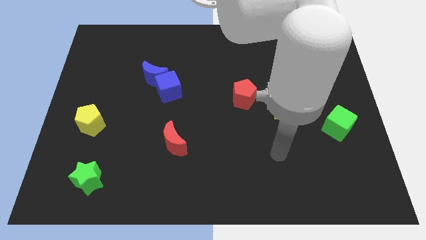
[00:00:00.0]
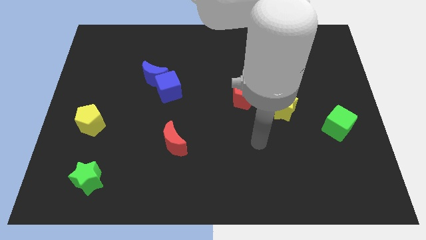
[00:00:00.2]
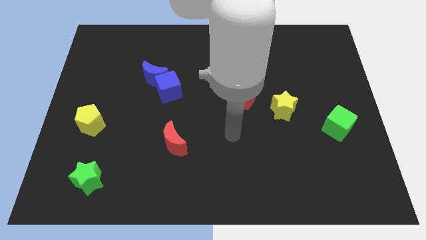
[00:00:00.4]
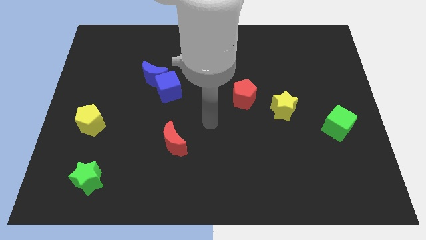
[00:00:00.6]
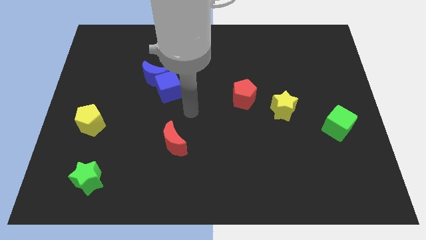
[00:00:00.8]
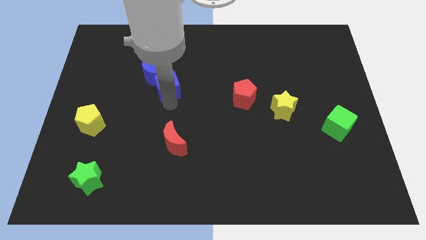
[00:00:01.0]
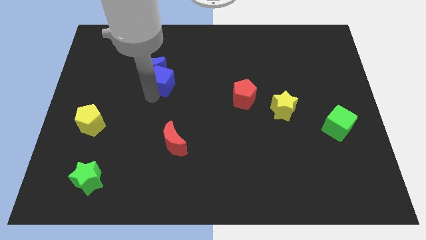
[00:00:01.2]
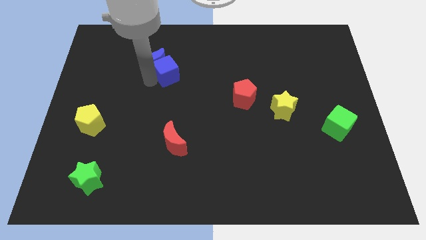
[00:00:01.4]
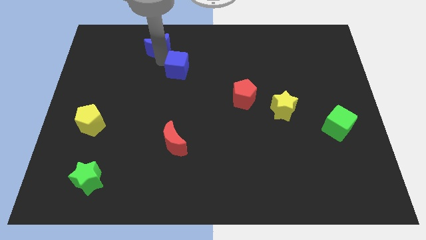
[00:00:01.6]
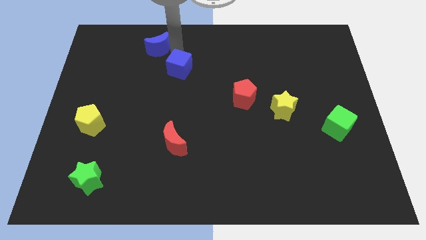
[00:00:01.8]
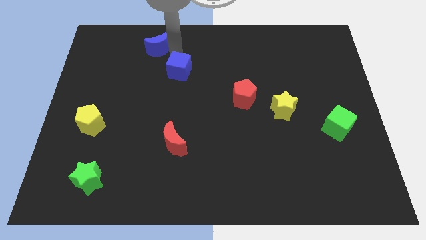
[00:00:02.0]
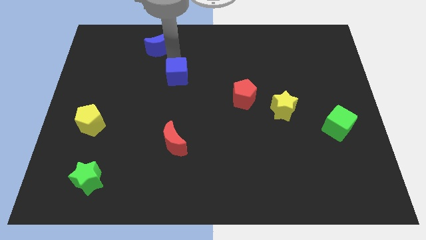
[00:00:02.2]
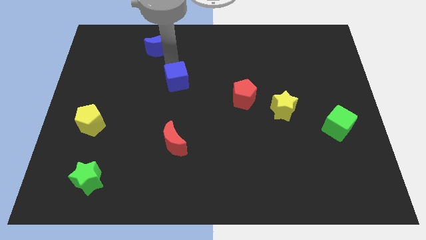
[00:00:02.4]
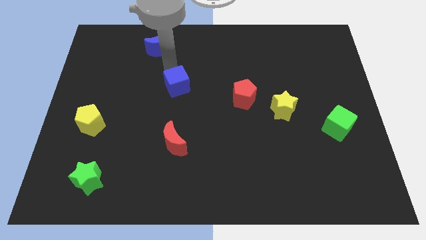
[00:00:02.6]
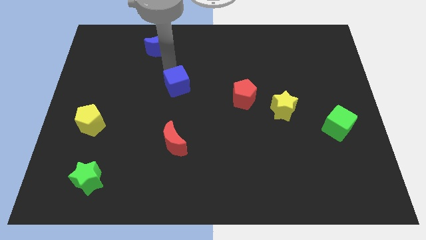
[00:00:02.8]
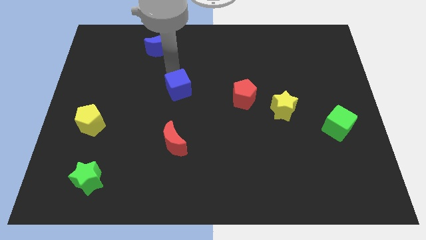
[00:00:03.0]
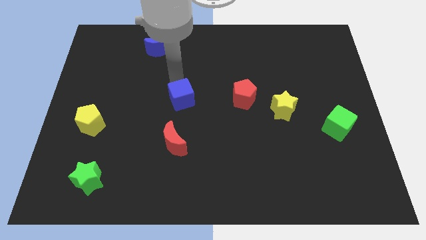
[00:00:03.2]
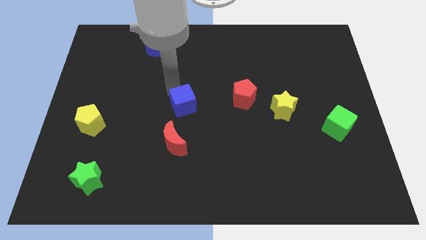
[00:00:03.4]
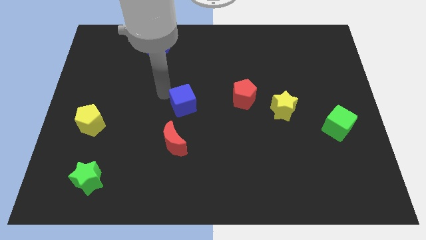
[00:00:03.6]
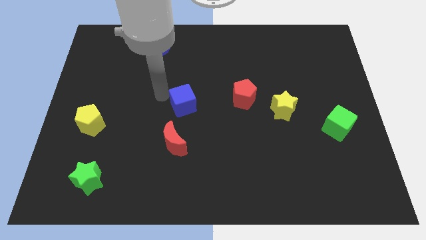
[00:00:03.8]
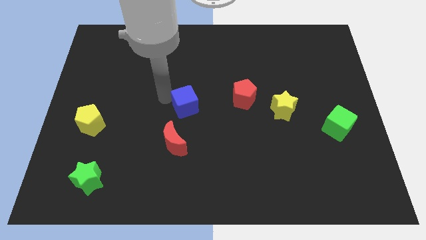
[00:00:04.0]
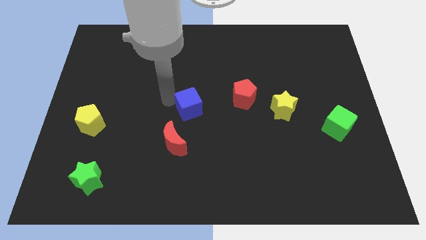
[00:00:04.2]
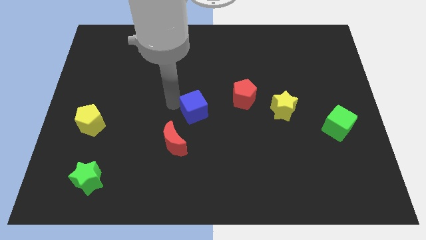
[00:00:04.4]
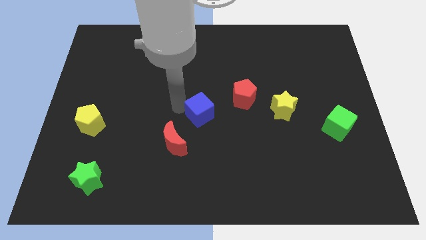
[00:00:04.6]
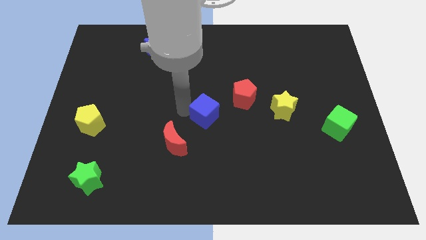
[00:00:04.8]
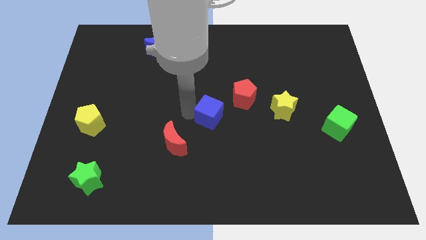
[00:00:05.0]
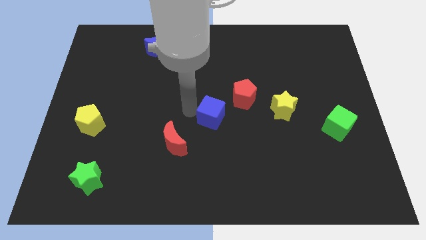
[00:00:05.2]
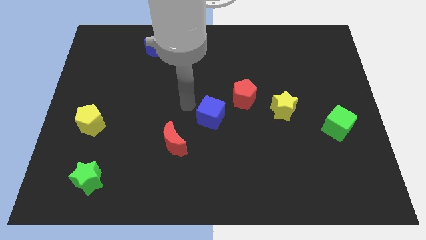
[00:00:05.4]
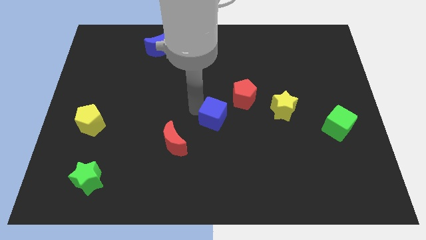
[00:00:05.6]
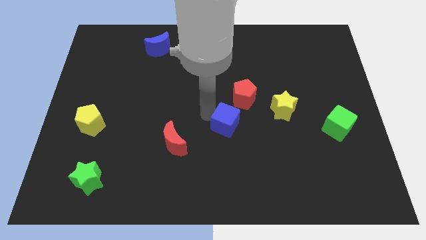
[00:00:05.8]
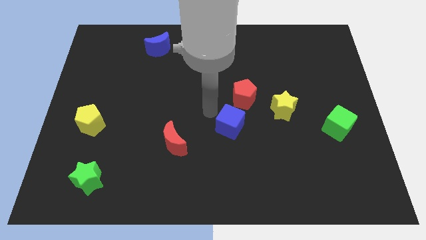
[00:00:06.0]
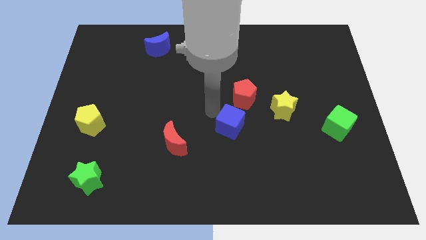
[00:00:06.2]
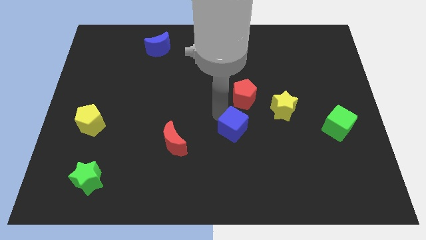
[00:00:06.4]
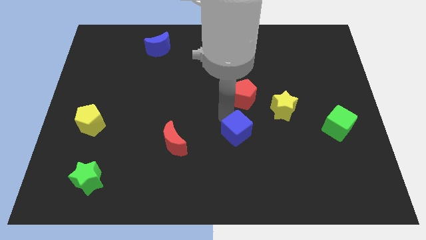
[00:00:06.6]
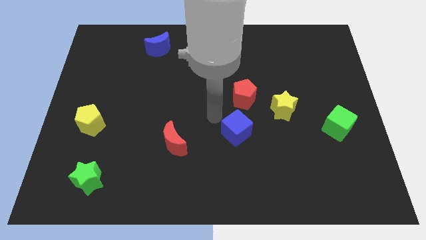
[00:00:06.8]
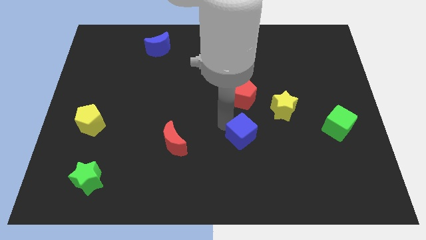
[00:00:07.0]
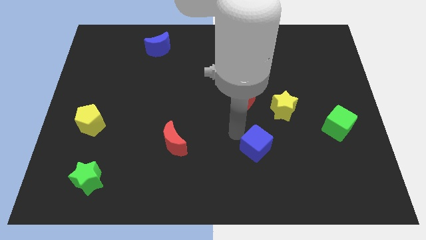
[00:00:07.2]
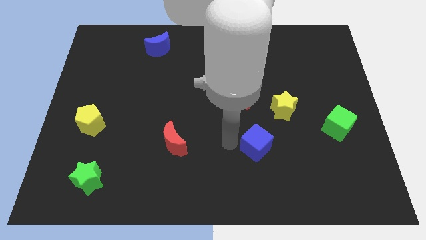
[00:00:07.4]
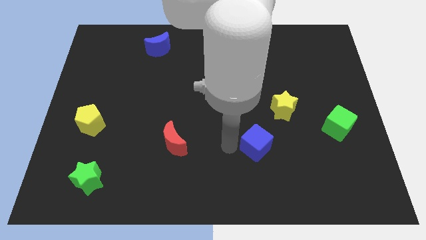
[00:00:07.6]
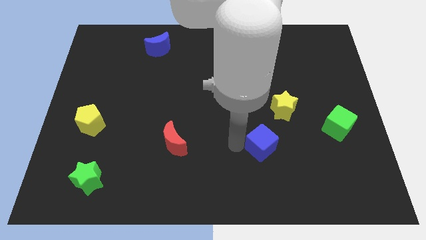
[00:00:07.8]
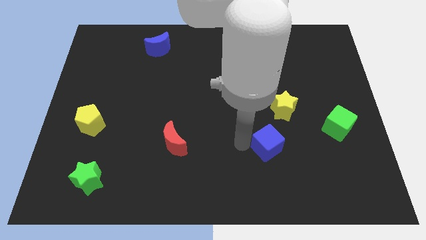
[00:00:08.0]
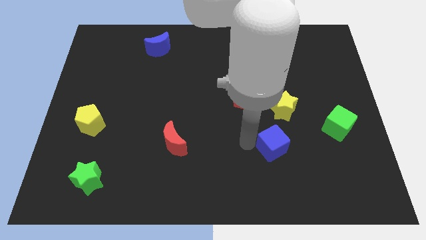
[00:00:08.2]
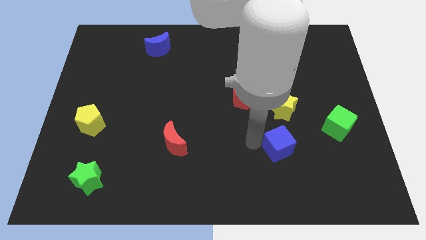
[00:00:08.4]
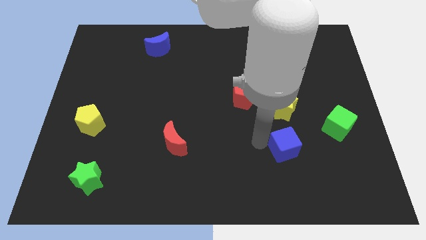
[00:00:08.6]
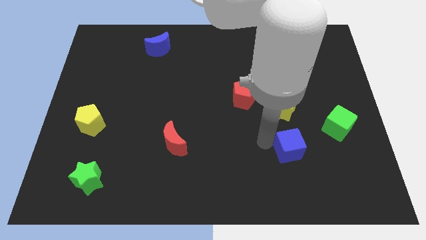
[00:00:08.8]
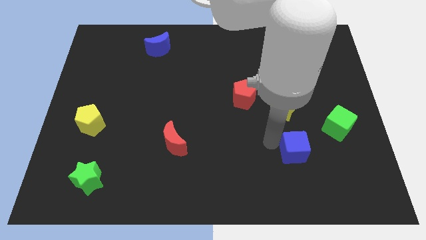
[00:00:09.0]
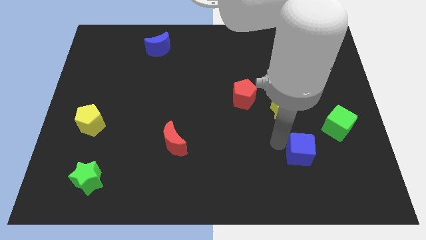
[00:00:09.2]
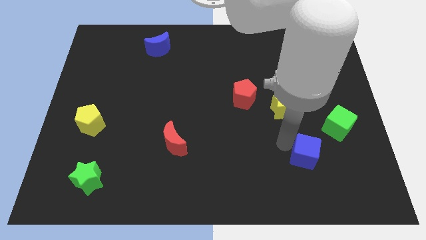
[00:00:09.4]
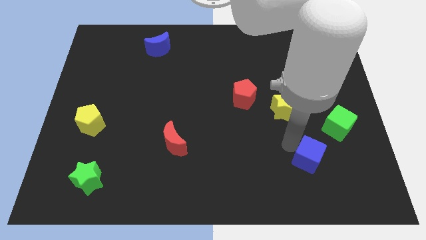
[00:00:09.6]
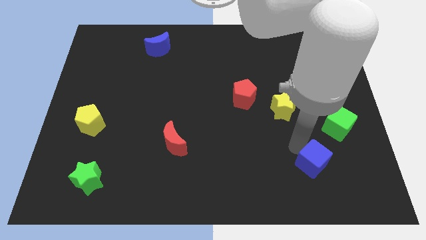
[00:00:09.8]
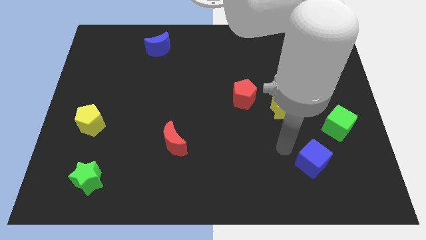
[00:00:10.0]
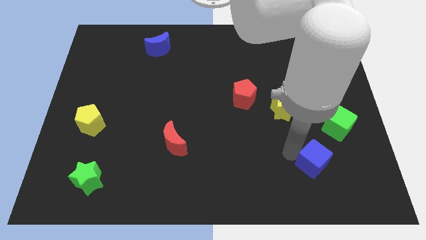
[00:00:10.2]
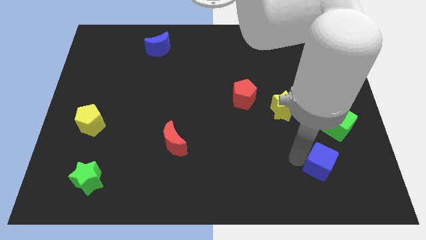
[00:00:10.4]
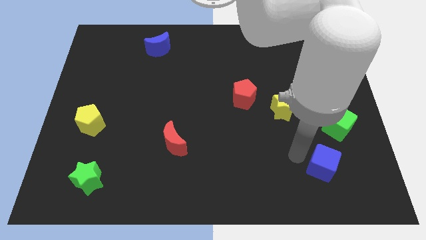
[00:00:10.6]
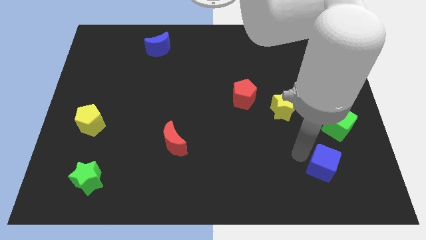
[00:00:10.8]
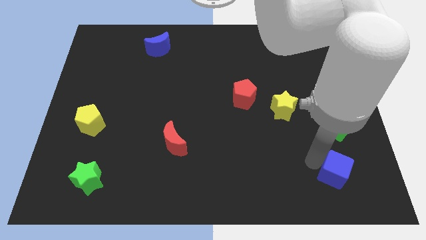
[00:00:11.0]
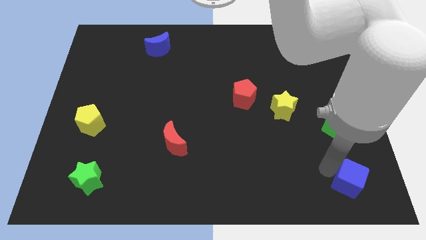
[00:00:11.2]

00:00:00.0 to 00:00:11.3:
push the blue cube to the bottom right

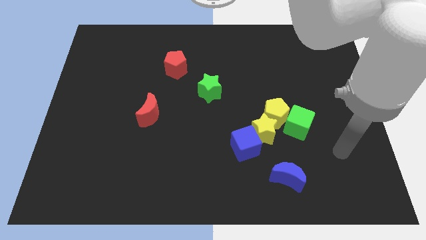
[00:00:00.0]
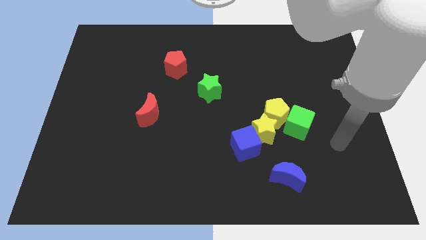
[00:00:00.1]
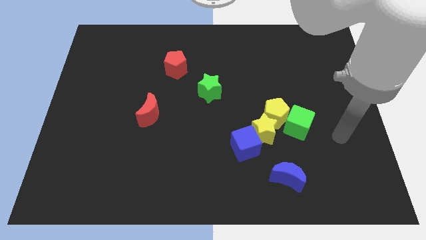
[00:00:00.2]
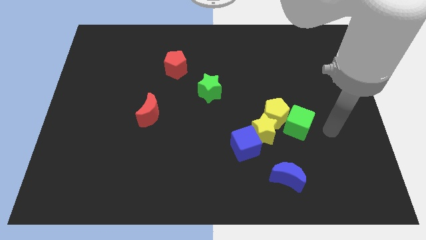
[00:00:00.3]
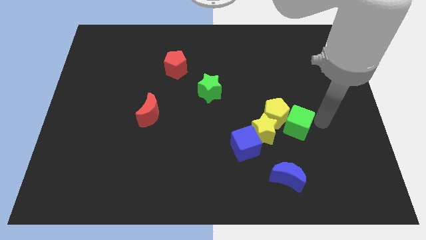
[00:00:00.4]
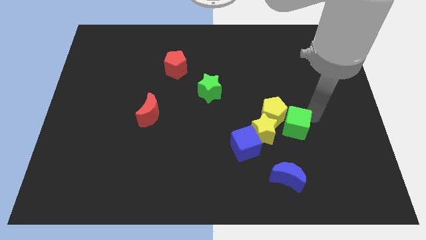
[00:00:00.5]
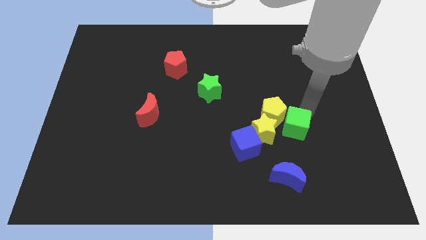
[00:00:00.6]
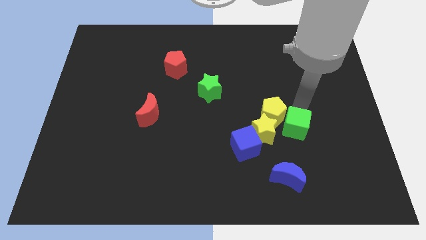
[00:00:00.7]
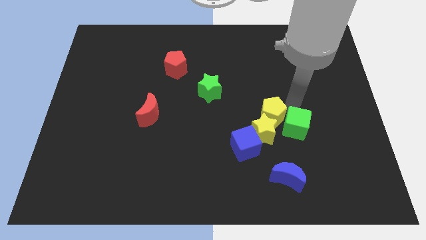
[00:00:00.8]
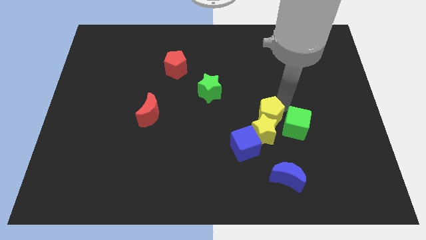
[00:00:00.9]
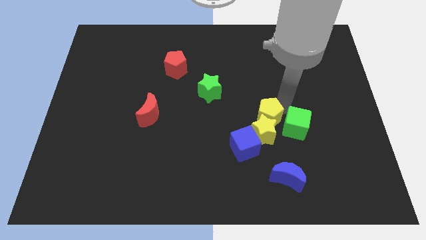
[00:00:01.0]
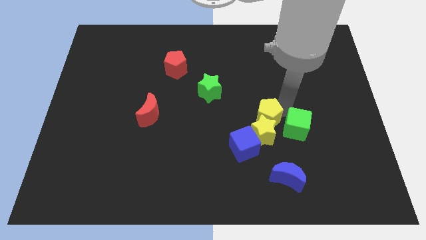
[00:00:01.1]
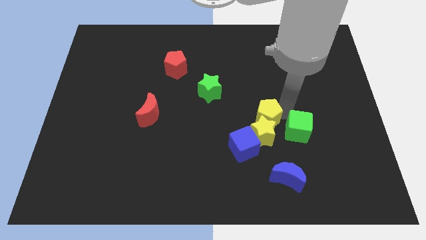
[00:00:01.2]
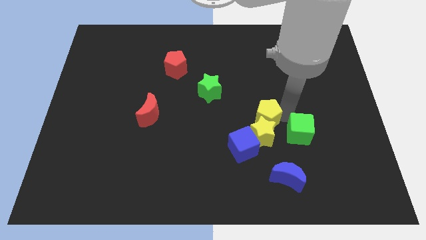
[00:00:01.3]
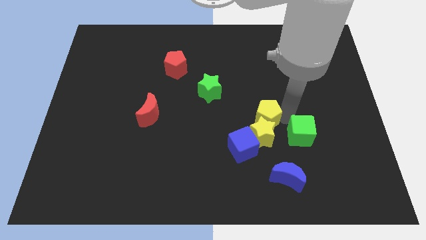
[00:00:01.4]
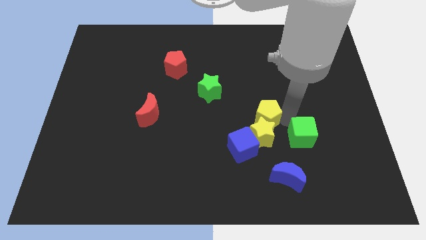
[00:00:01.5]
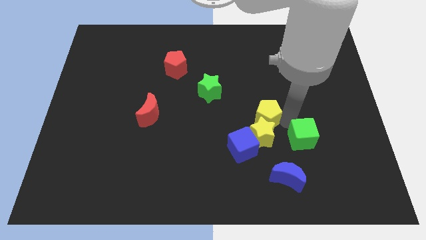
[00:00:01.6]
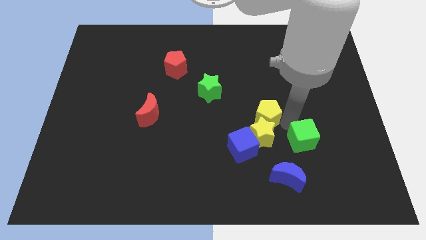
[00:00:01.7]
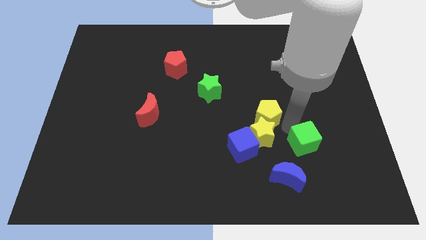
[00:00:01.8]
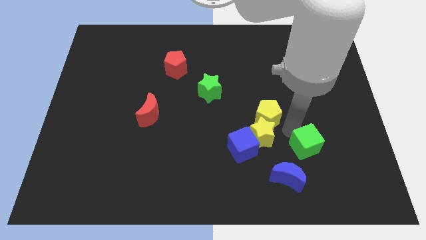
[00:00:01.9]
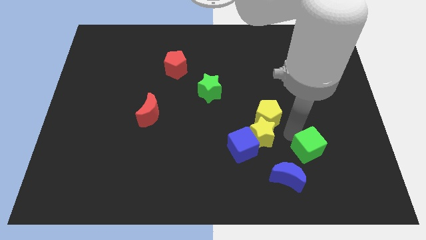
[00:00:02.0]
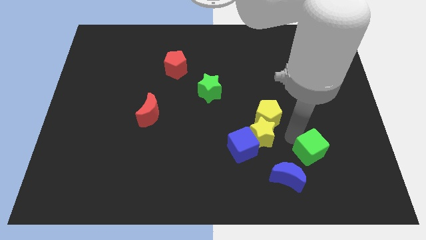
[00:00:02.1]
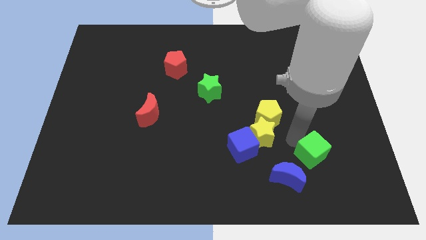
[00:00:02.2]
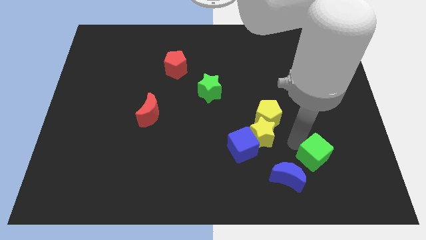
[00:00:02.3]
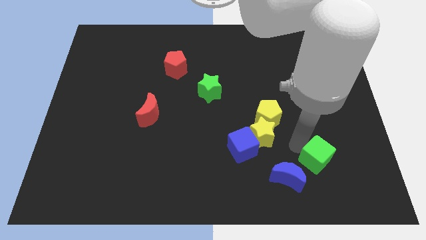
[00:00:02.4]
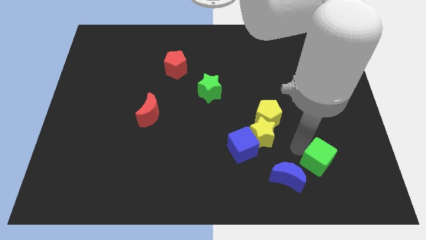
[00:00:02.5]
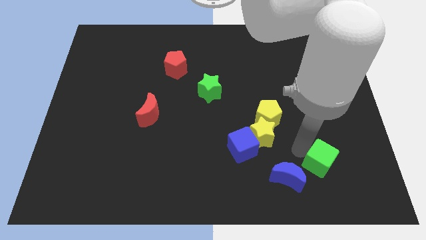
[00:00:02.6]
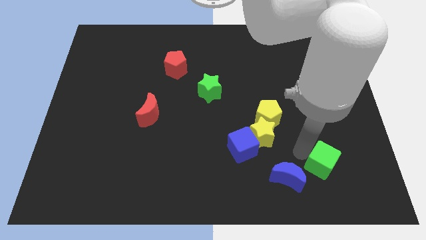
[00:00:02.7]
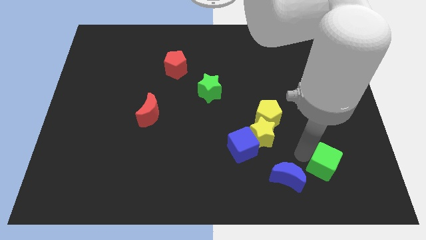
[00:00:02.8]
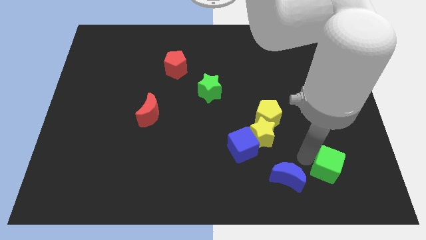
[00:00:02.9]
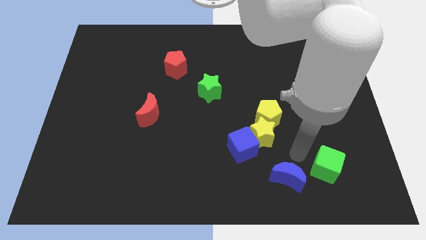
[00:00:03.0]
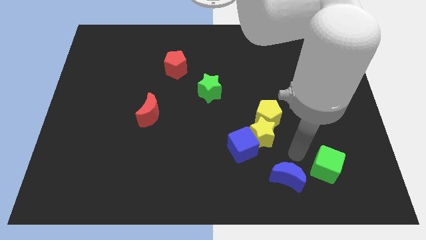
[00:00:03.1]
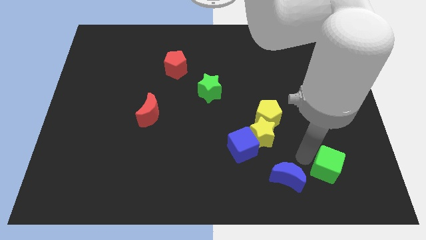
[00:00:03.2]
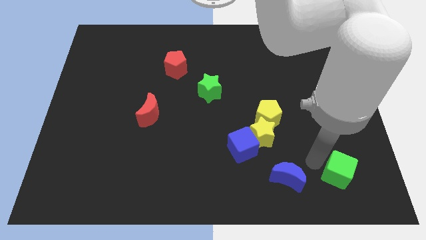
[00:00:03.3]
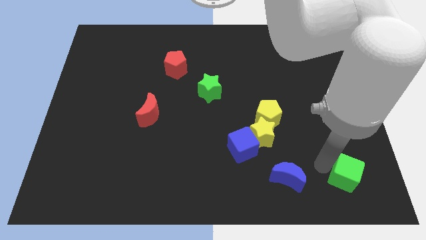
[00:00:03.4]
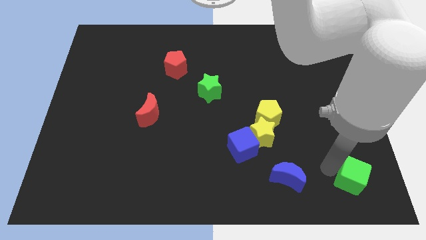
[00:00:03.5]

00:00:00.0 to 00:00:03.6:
push the green cube to the bottom right corner
